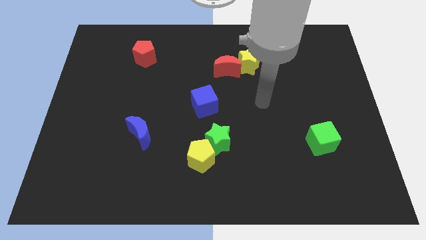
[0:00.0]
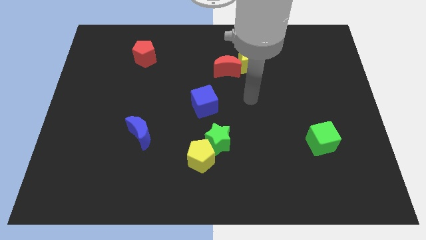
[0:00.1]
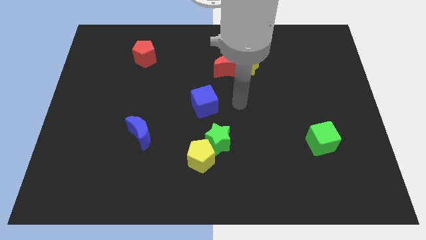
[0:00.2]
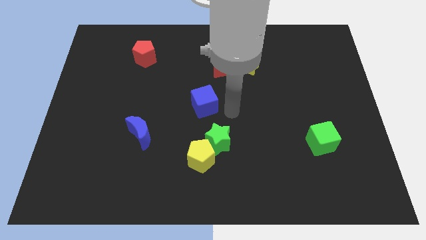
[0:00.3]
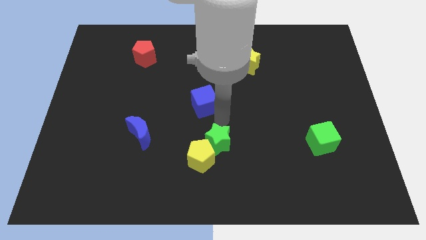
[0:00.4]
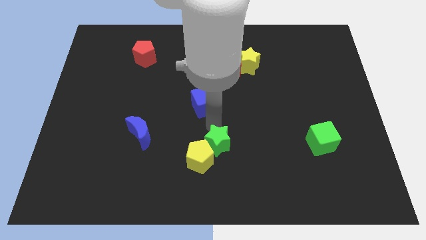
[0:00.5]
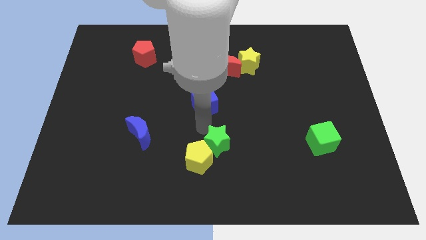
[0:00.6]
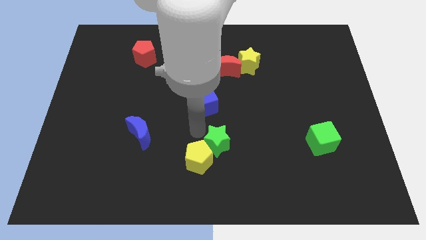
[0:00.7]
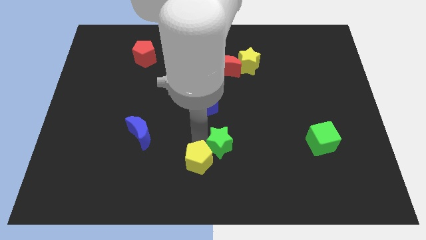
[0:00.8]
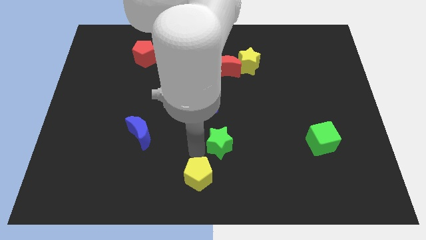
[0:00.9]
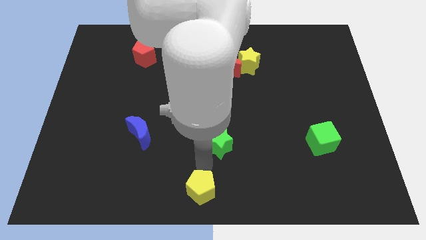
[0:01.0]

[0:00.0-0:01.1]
pull the green star apart from the yellow pentagon

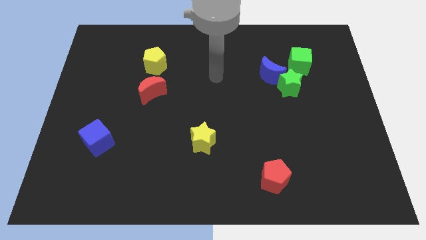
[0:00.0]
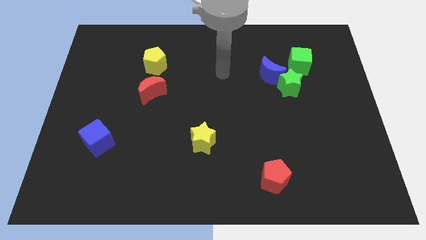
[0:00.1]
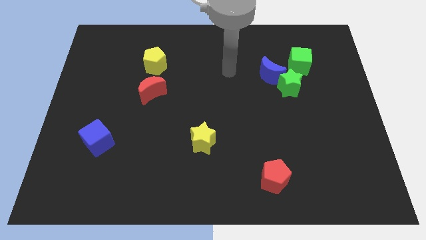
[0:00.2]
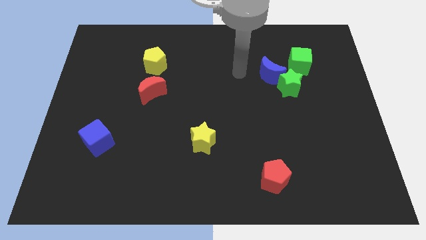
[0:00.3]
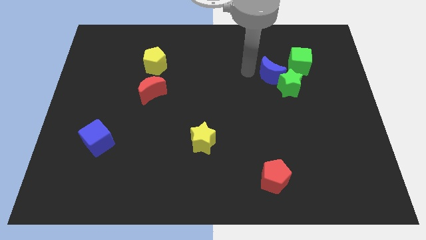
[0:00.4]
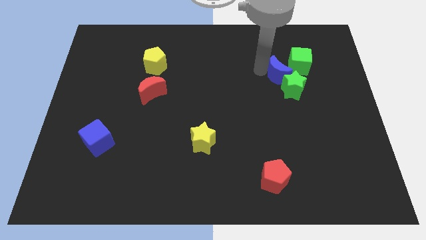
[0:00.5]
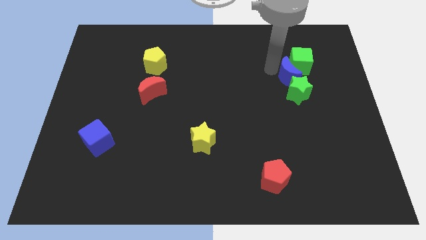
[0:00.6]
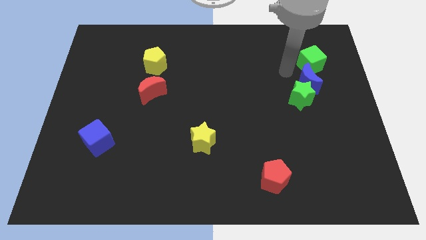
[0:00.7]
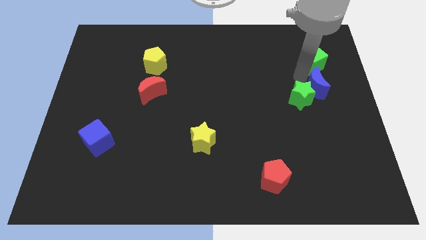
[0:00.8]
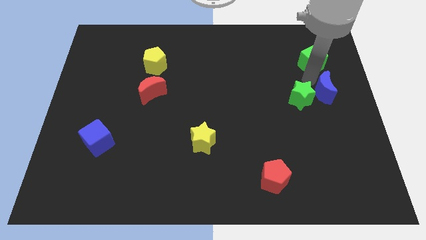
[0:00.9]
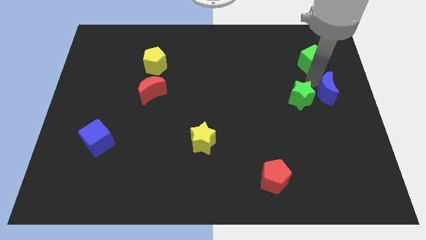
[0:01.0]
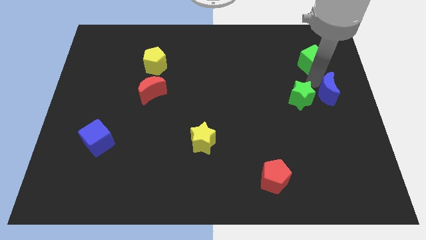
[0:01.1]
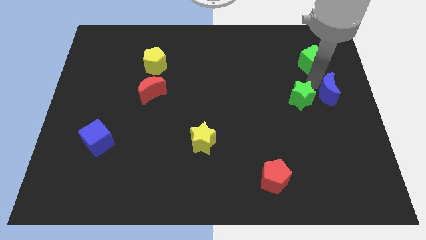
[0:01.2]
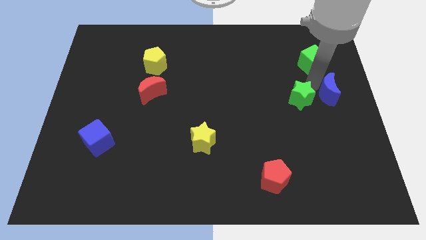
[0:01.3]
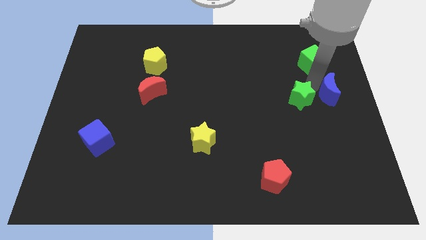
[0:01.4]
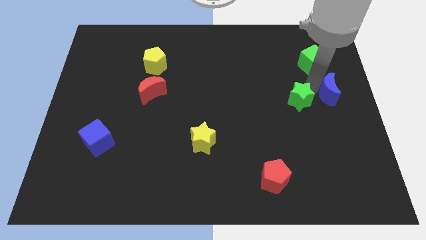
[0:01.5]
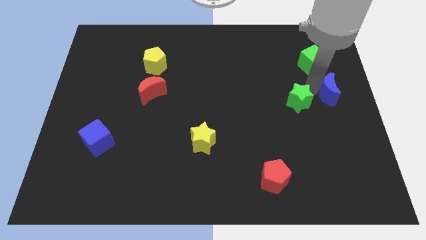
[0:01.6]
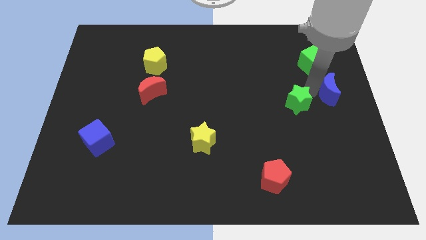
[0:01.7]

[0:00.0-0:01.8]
move the green star away from the blue moon and green cube

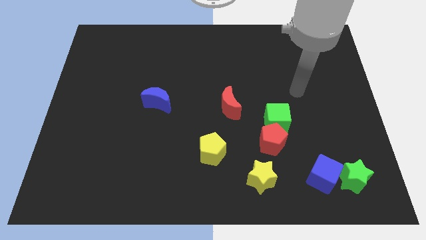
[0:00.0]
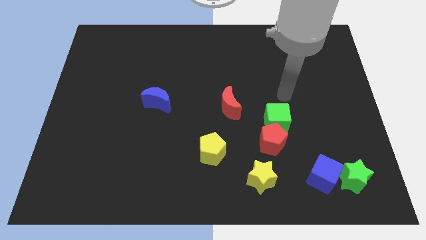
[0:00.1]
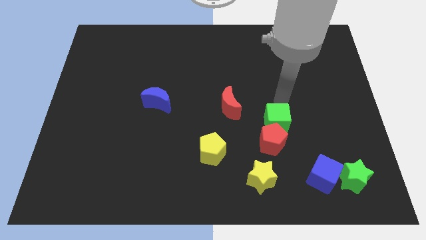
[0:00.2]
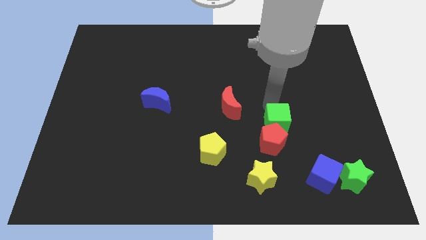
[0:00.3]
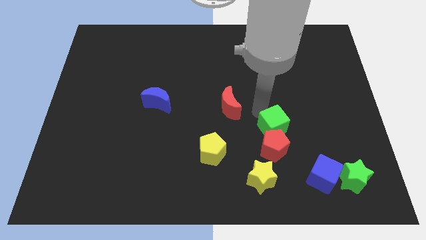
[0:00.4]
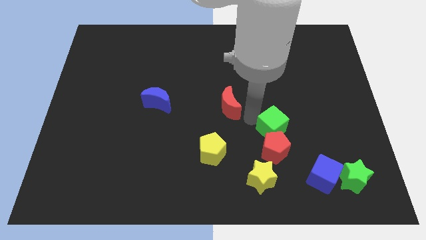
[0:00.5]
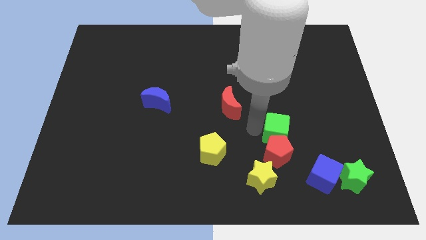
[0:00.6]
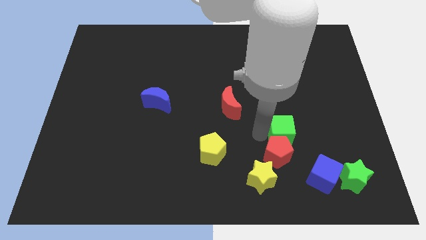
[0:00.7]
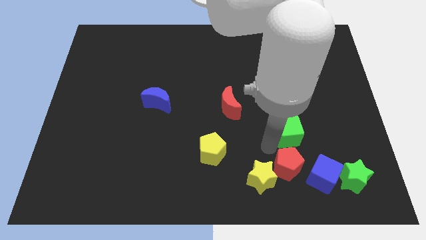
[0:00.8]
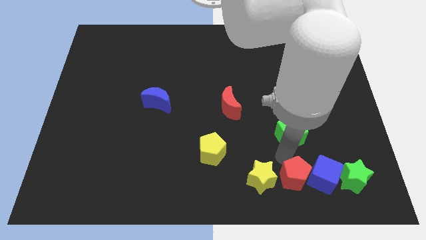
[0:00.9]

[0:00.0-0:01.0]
separate the green cube from the red pentagon

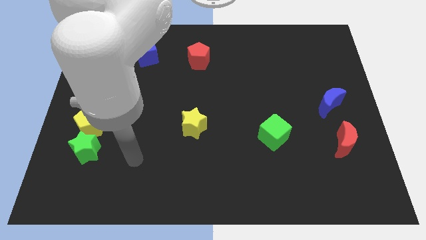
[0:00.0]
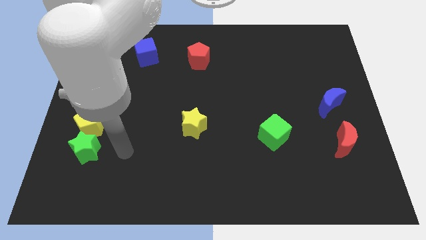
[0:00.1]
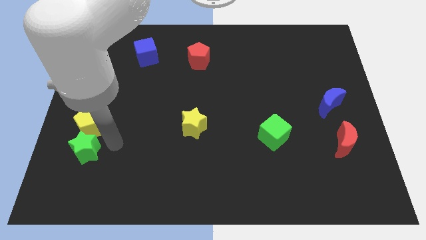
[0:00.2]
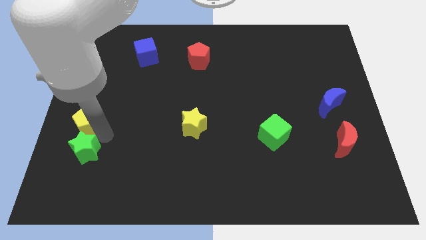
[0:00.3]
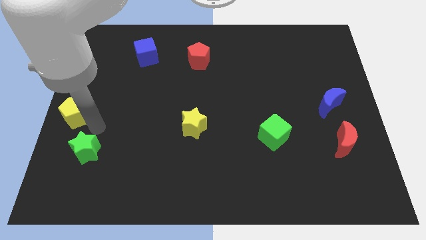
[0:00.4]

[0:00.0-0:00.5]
separate the green star from the yellow pentagon

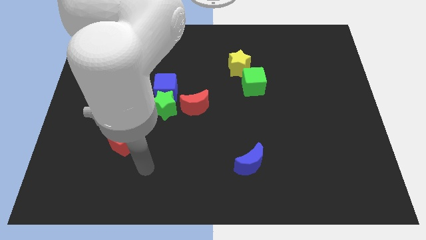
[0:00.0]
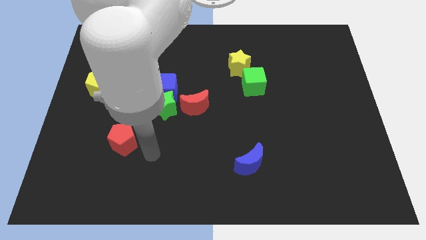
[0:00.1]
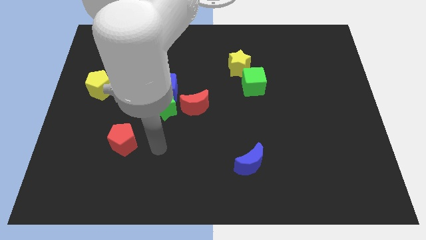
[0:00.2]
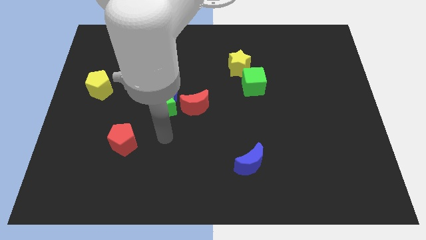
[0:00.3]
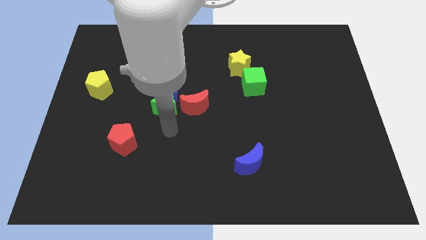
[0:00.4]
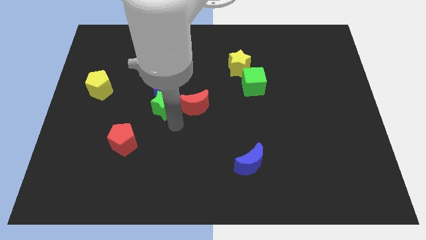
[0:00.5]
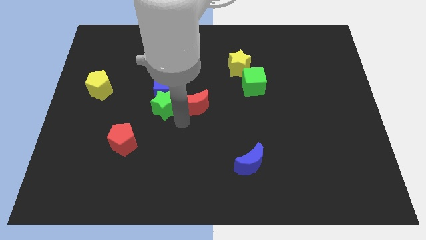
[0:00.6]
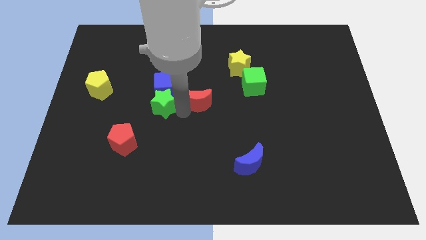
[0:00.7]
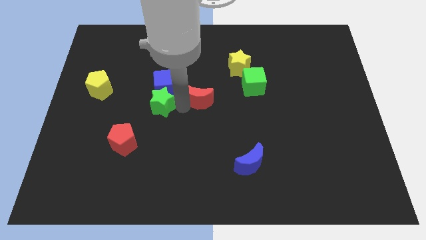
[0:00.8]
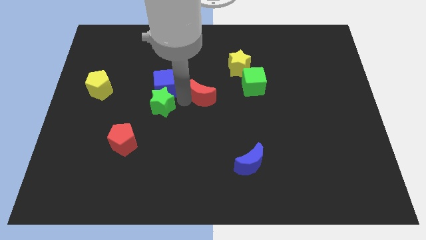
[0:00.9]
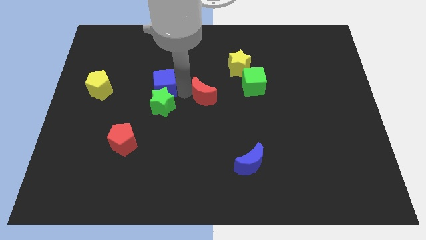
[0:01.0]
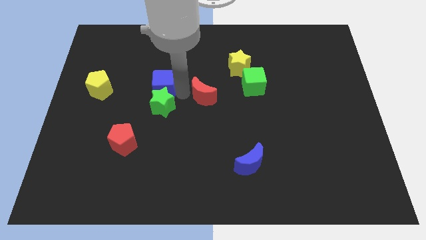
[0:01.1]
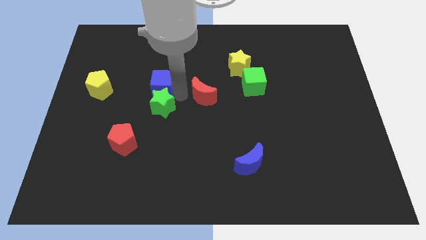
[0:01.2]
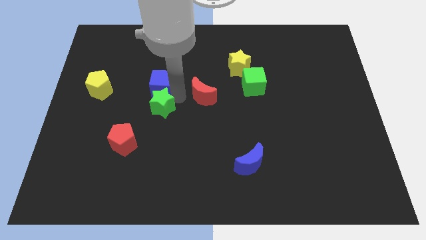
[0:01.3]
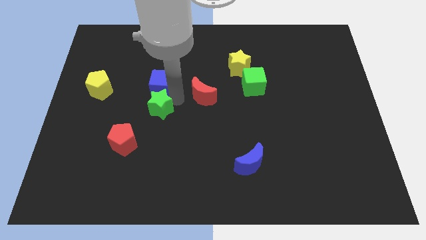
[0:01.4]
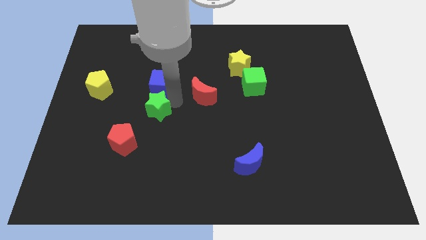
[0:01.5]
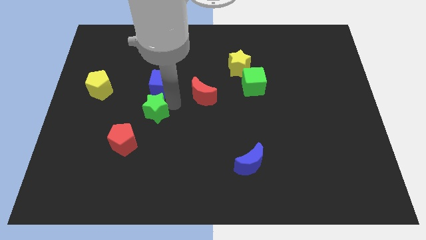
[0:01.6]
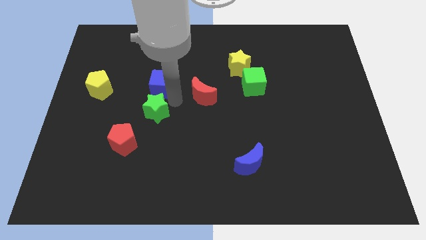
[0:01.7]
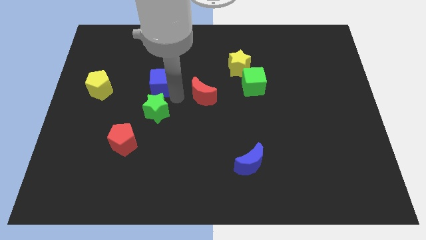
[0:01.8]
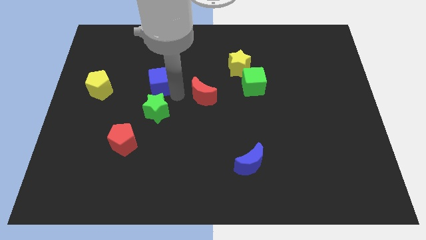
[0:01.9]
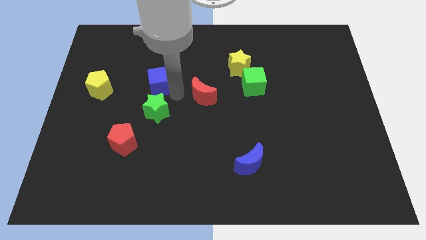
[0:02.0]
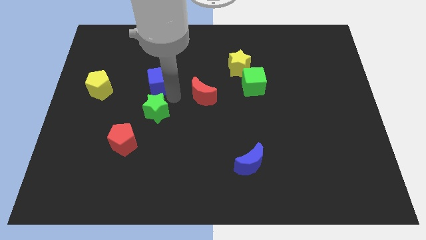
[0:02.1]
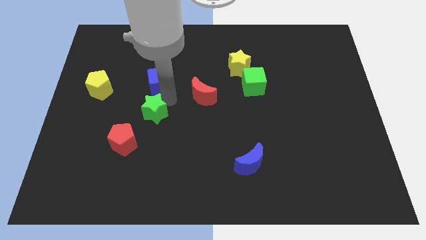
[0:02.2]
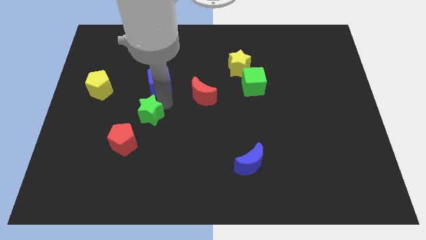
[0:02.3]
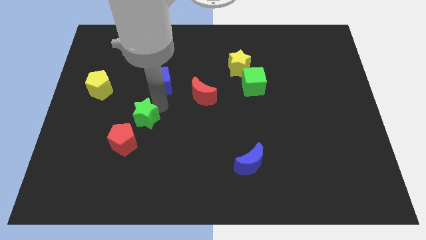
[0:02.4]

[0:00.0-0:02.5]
pull the green star apart from the blue cube and red moon

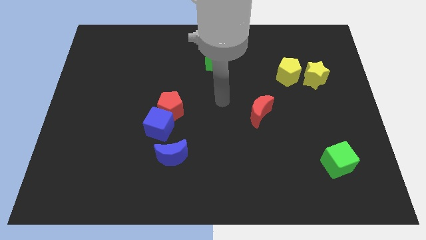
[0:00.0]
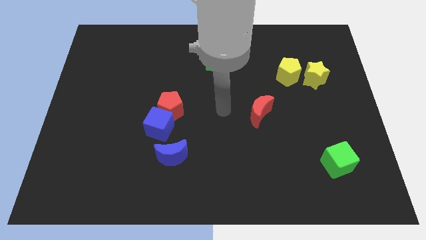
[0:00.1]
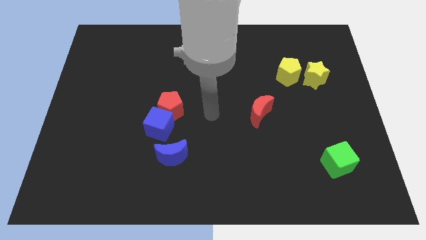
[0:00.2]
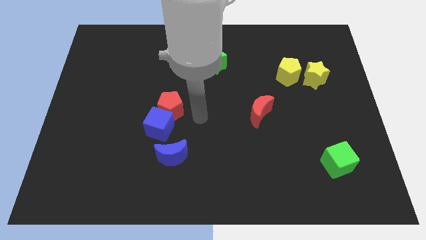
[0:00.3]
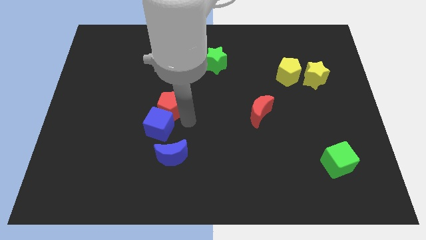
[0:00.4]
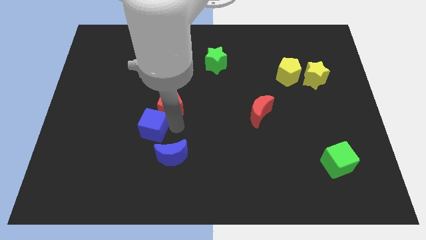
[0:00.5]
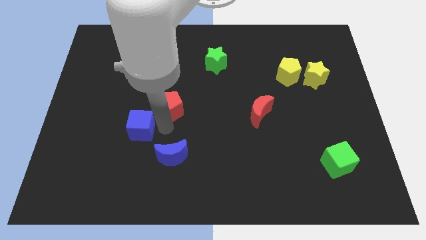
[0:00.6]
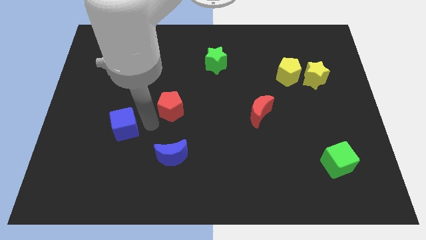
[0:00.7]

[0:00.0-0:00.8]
separate the red pentagon from the blue cube

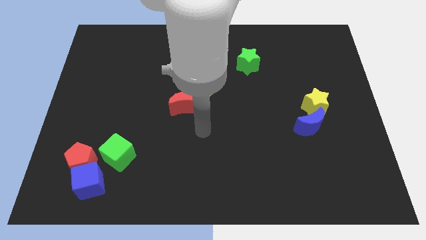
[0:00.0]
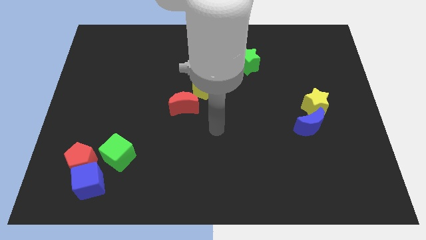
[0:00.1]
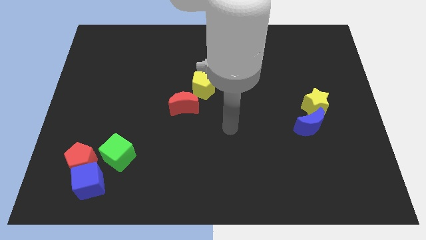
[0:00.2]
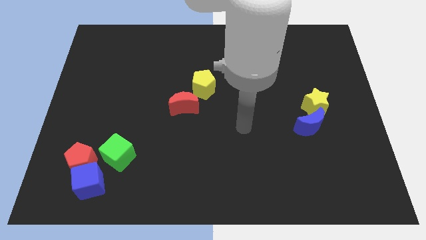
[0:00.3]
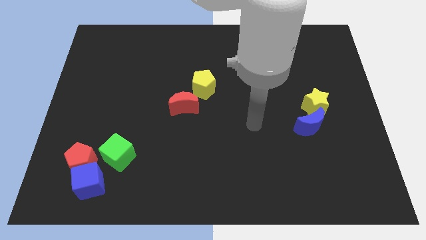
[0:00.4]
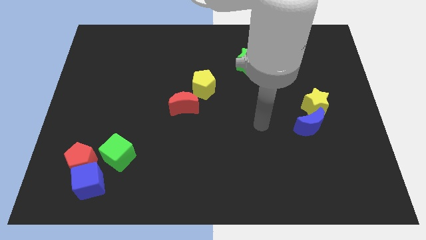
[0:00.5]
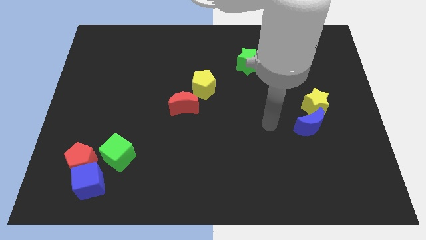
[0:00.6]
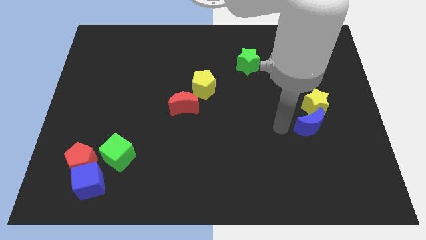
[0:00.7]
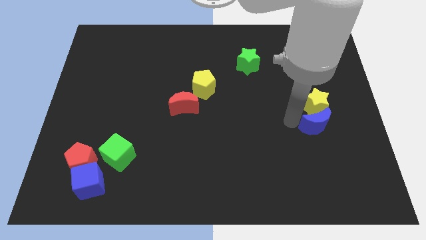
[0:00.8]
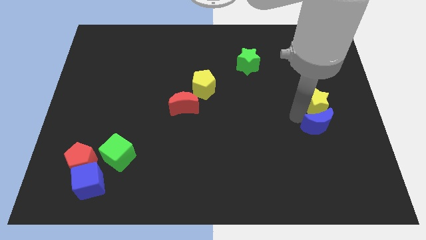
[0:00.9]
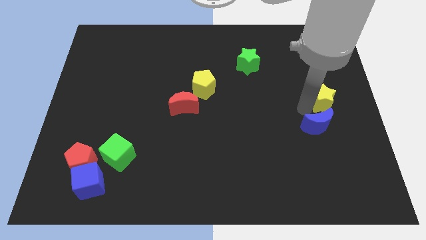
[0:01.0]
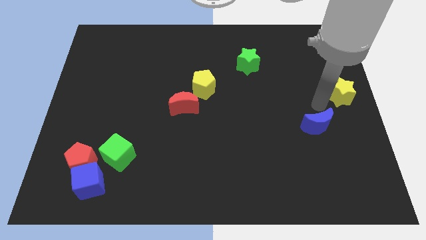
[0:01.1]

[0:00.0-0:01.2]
move the blue moon away from the yellow star

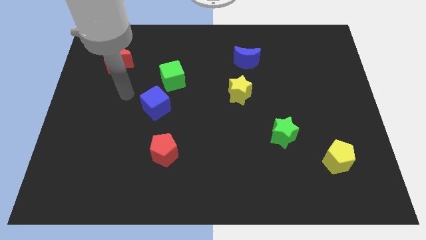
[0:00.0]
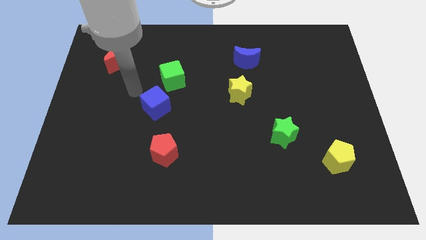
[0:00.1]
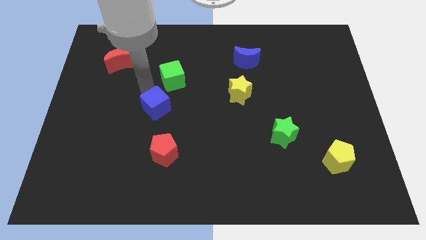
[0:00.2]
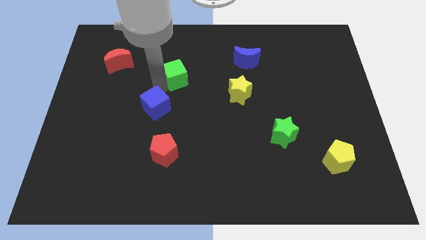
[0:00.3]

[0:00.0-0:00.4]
separate the blue cube from the green cube
